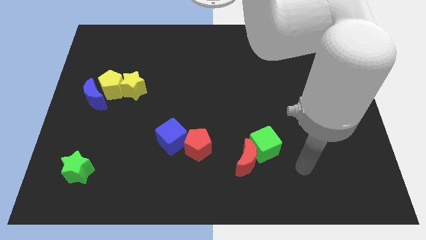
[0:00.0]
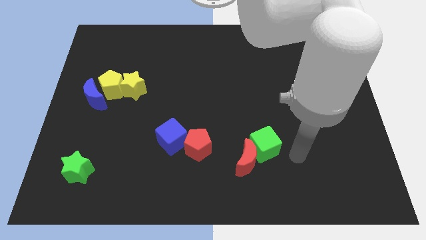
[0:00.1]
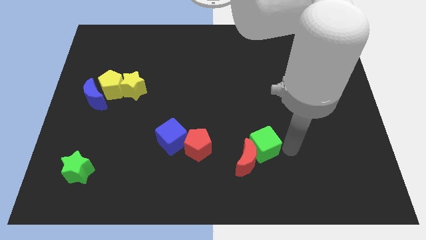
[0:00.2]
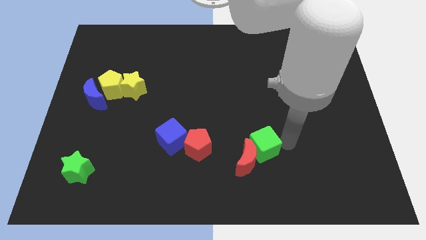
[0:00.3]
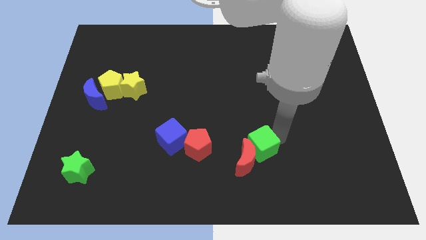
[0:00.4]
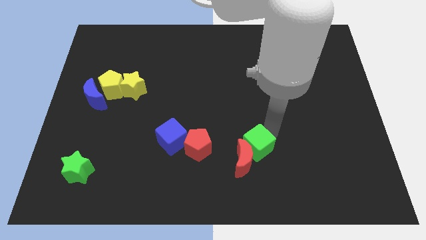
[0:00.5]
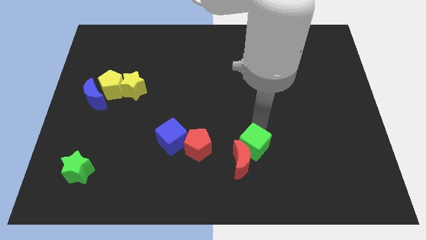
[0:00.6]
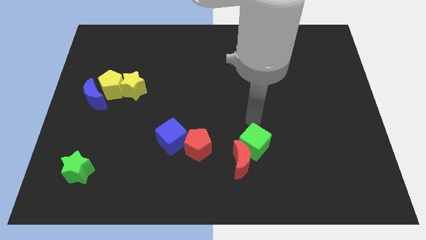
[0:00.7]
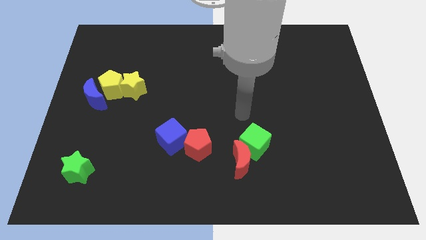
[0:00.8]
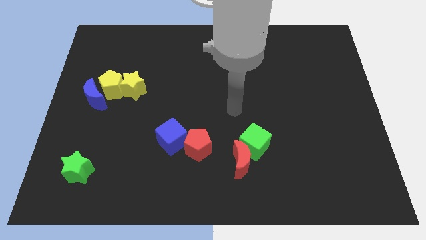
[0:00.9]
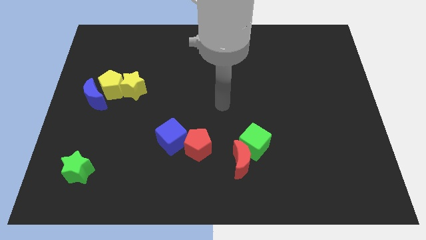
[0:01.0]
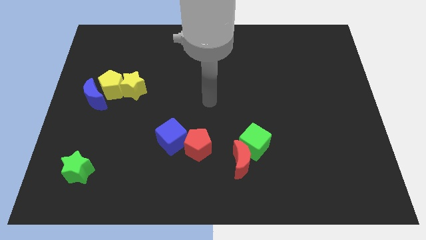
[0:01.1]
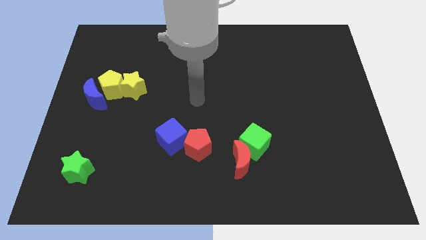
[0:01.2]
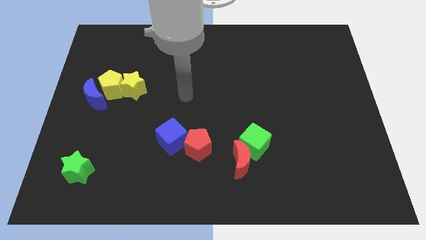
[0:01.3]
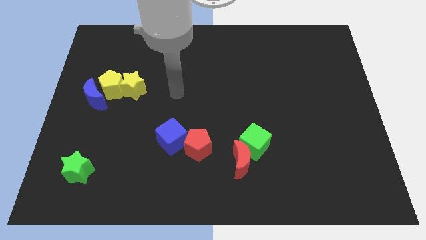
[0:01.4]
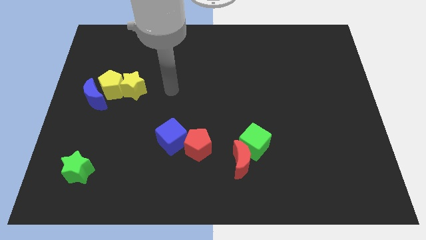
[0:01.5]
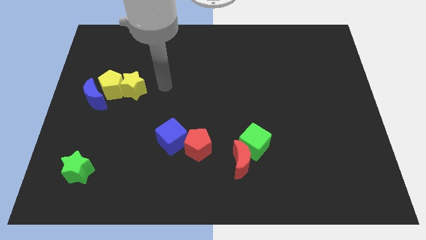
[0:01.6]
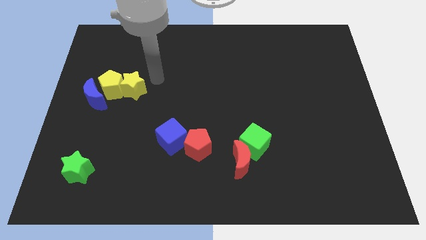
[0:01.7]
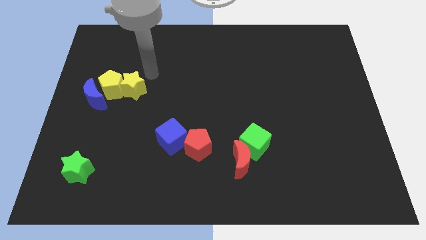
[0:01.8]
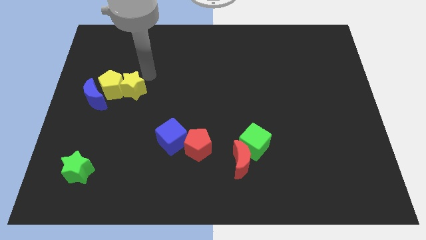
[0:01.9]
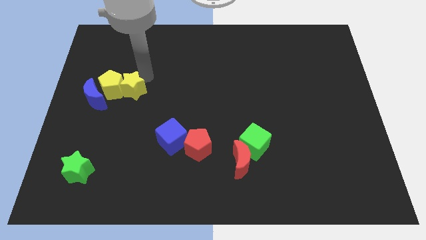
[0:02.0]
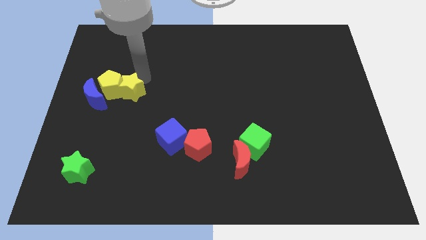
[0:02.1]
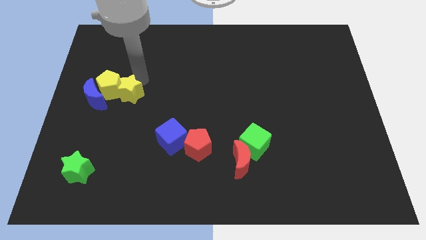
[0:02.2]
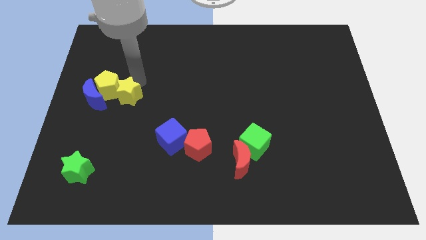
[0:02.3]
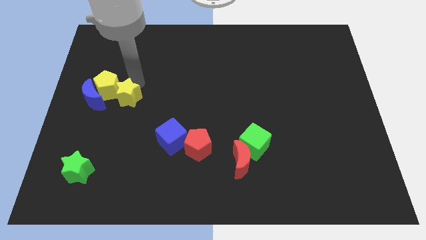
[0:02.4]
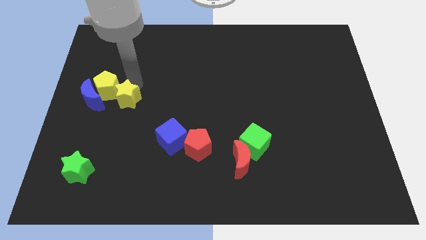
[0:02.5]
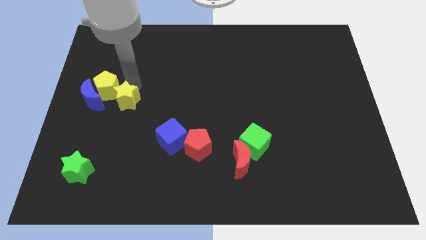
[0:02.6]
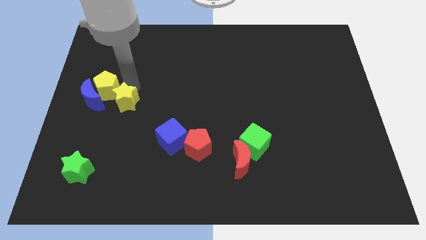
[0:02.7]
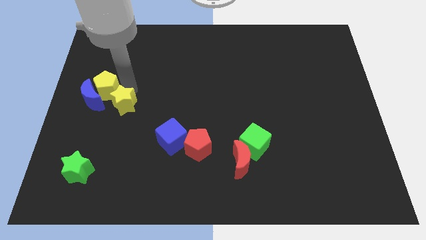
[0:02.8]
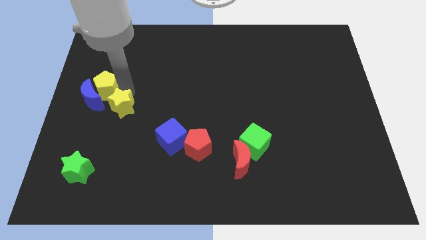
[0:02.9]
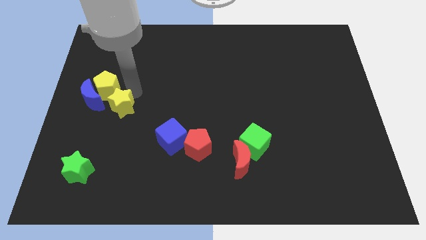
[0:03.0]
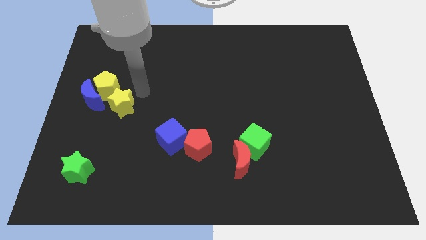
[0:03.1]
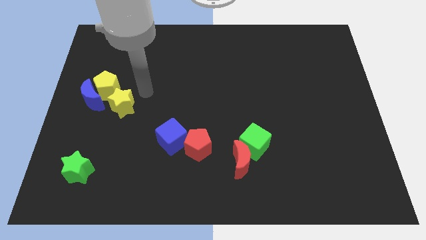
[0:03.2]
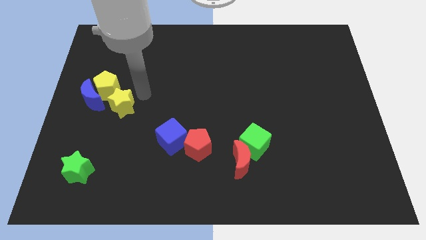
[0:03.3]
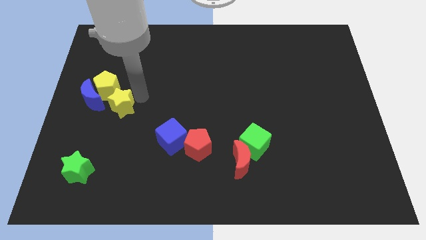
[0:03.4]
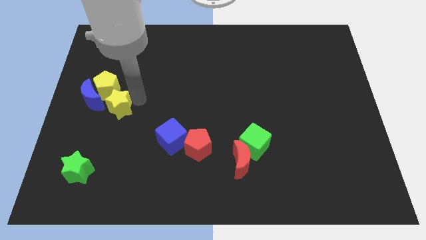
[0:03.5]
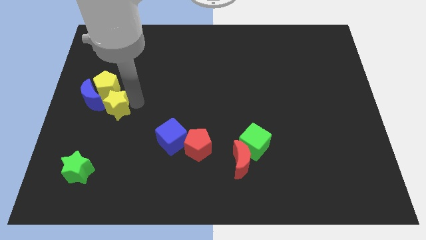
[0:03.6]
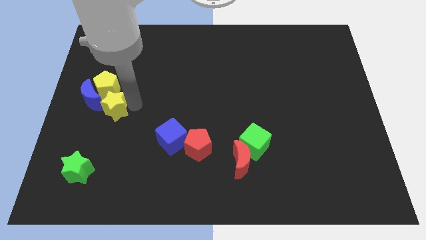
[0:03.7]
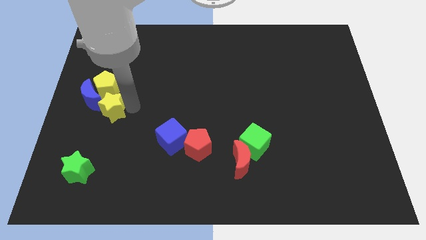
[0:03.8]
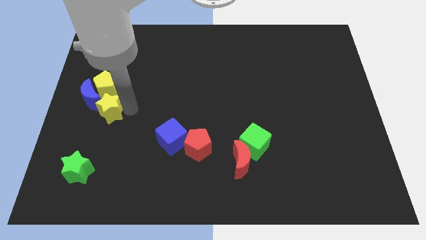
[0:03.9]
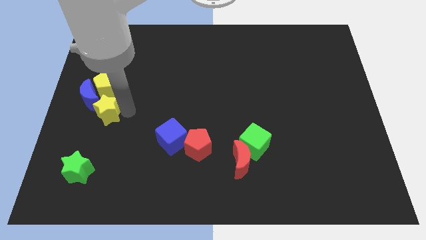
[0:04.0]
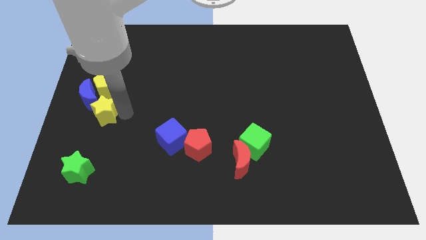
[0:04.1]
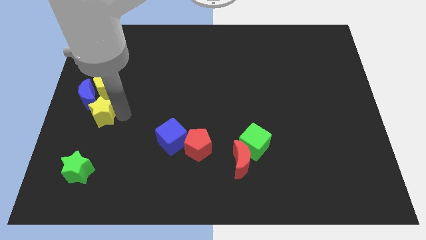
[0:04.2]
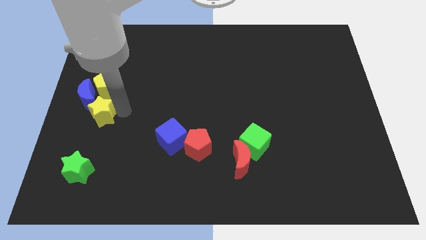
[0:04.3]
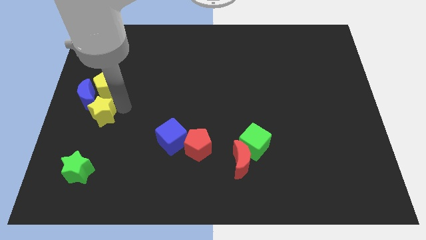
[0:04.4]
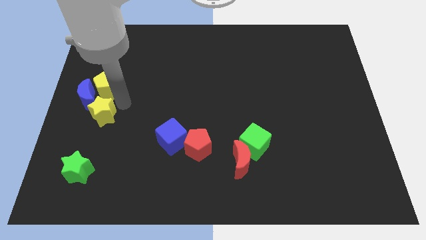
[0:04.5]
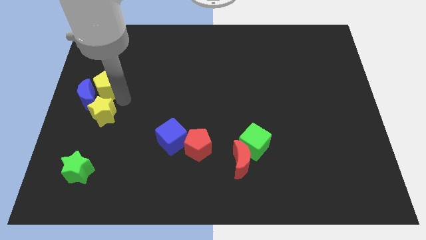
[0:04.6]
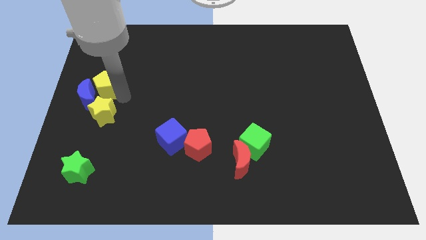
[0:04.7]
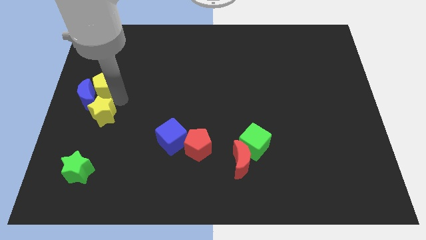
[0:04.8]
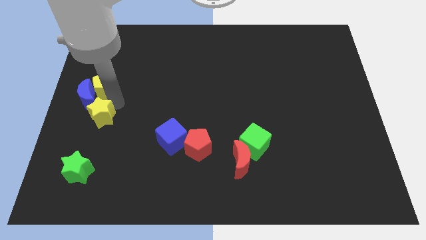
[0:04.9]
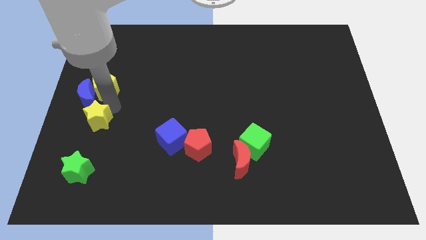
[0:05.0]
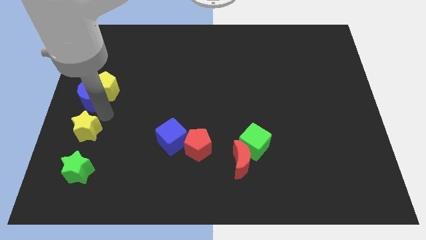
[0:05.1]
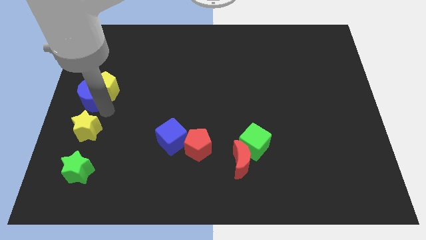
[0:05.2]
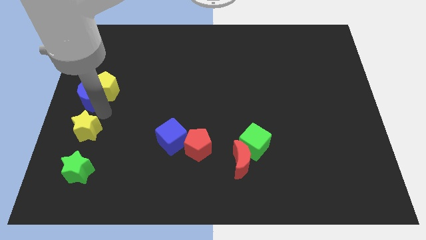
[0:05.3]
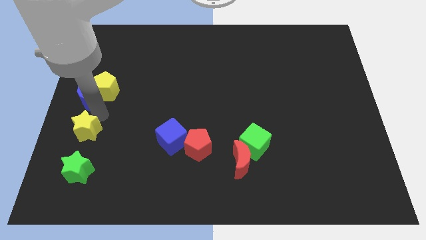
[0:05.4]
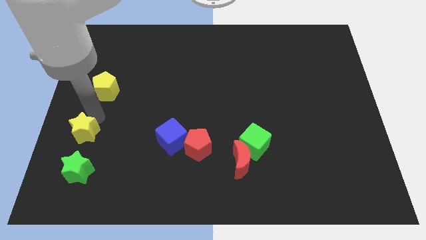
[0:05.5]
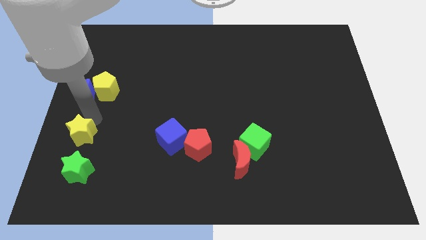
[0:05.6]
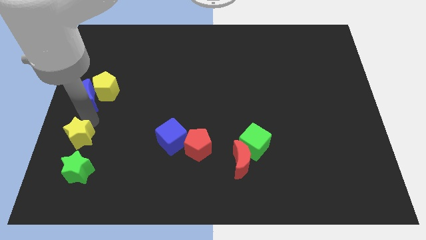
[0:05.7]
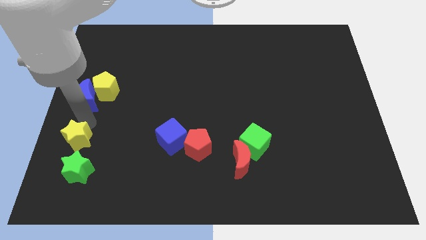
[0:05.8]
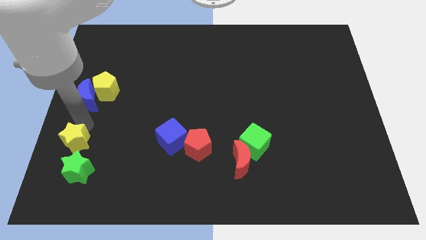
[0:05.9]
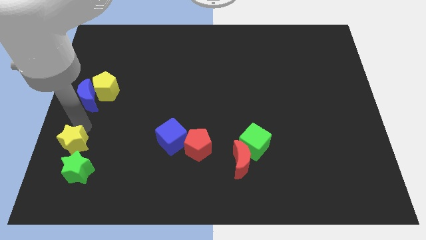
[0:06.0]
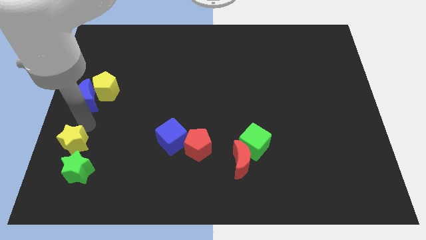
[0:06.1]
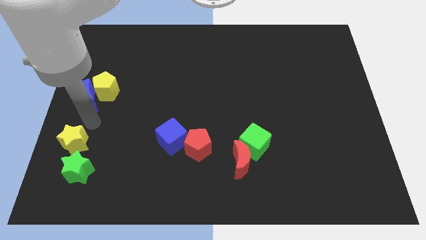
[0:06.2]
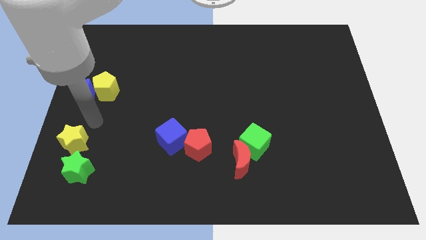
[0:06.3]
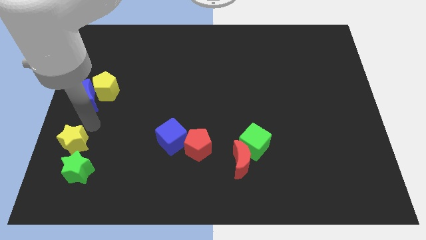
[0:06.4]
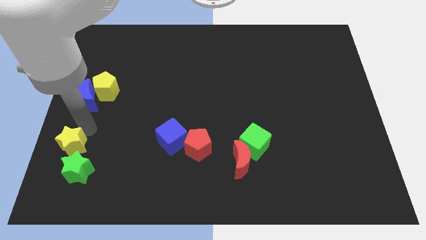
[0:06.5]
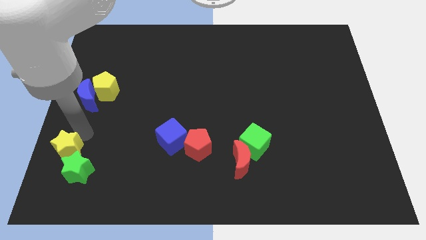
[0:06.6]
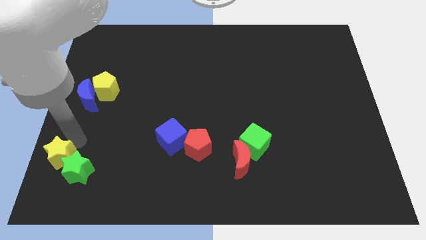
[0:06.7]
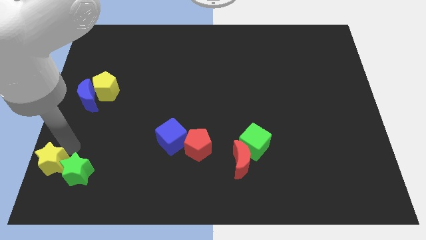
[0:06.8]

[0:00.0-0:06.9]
put the yellow star to the bottom left
